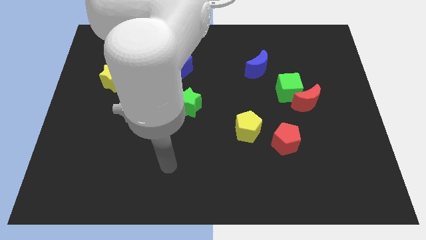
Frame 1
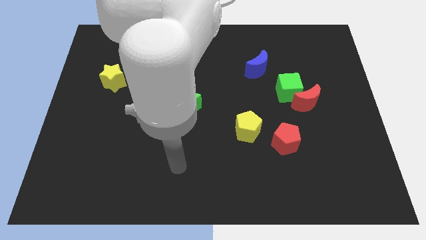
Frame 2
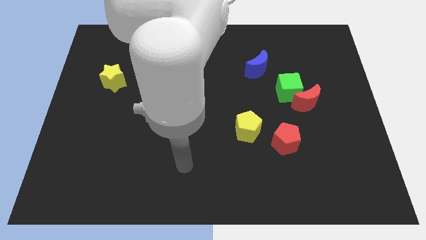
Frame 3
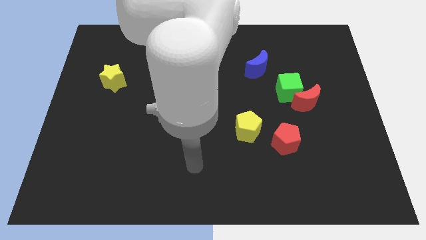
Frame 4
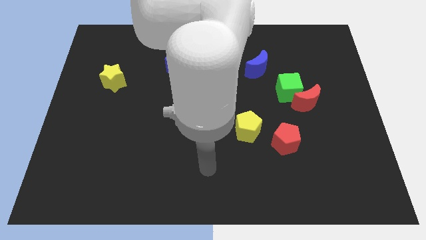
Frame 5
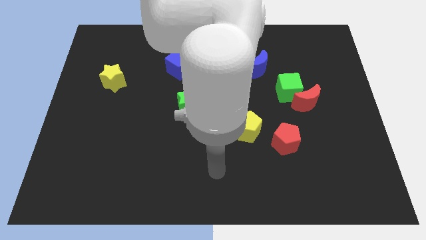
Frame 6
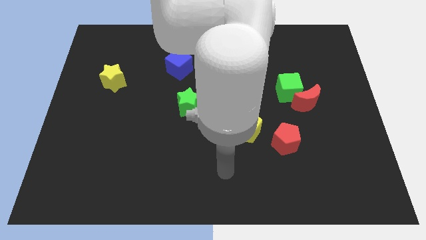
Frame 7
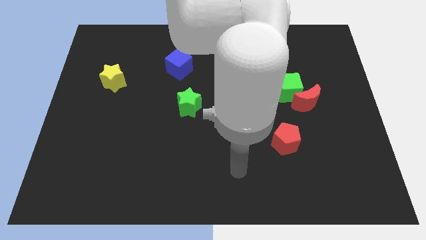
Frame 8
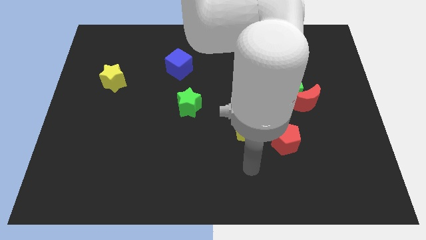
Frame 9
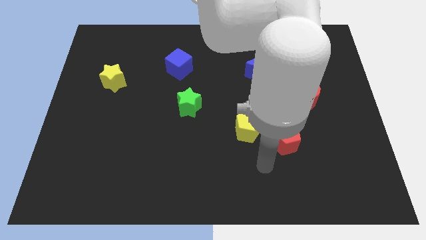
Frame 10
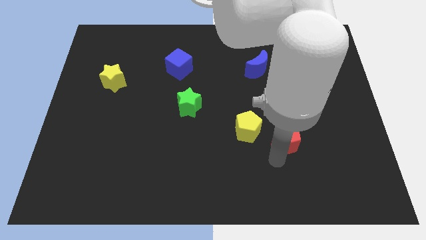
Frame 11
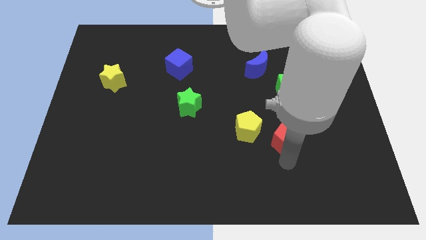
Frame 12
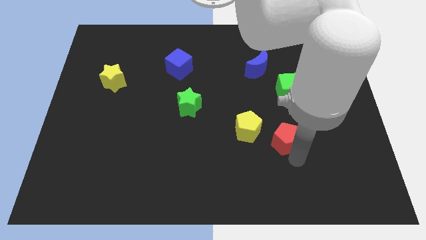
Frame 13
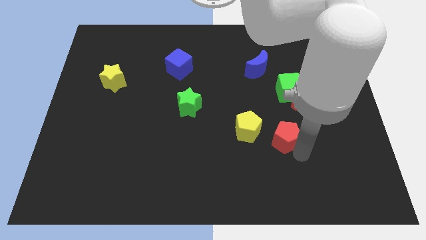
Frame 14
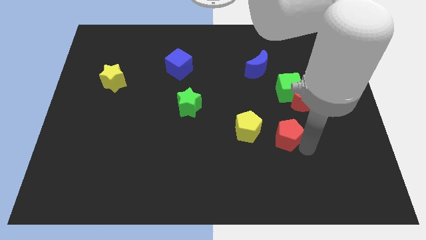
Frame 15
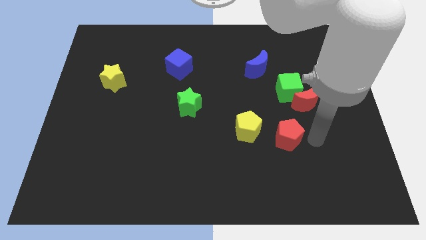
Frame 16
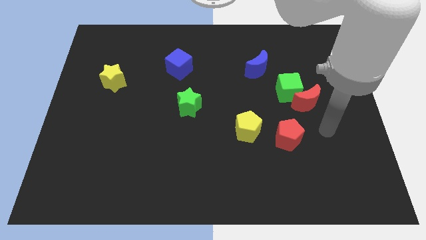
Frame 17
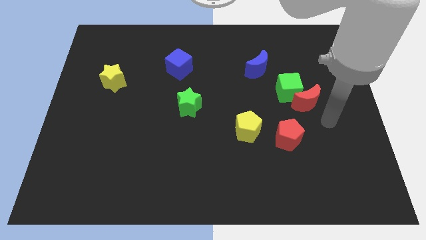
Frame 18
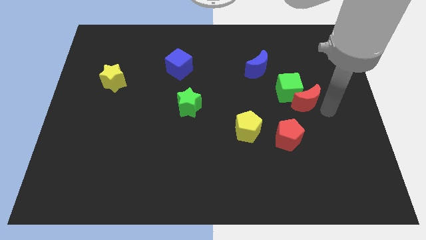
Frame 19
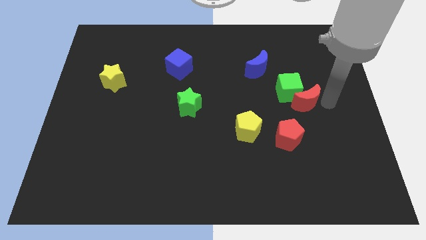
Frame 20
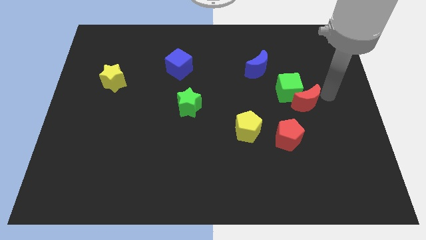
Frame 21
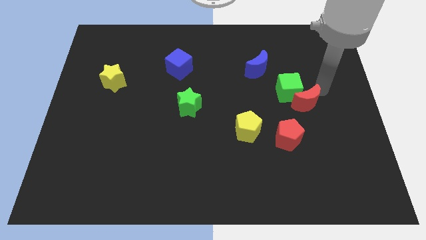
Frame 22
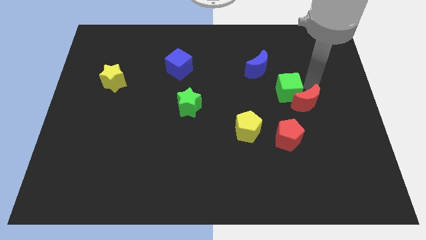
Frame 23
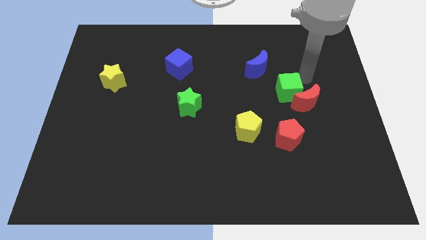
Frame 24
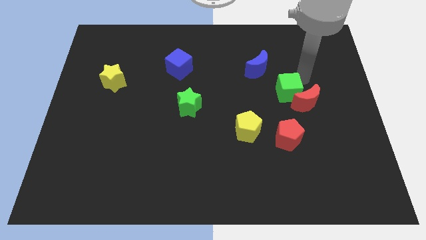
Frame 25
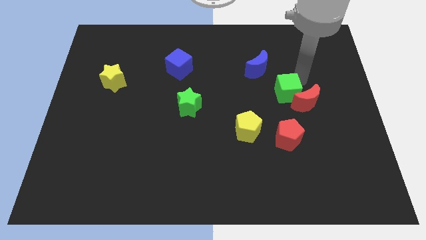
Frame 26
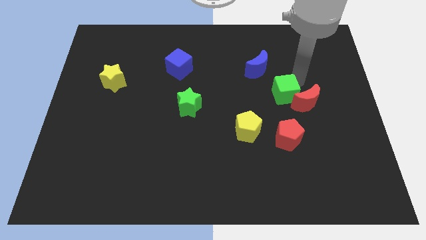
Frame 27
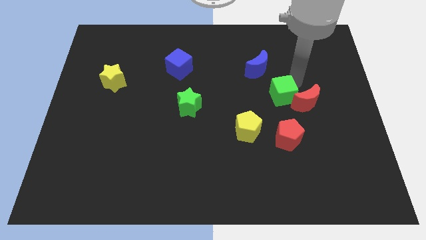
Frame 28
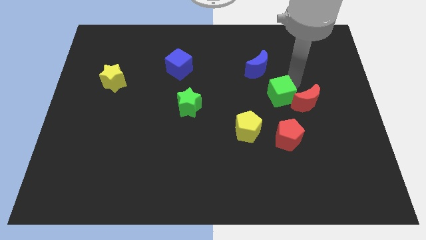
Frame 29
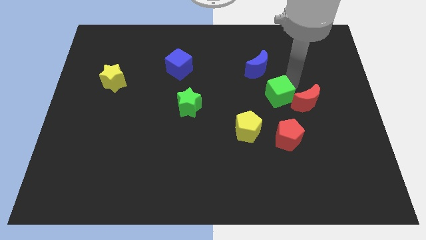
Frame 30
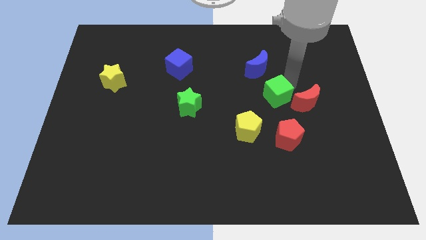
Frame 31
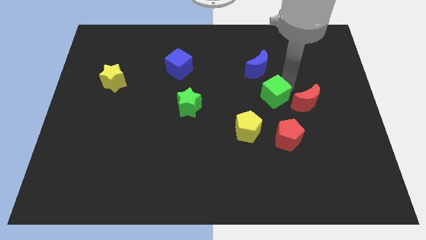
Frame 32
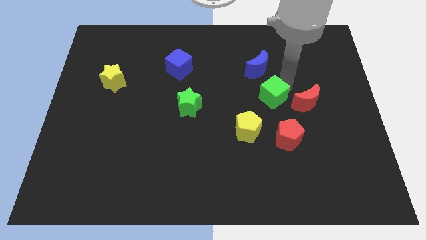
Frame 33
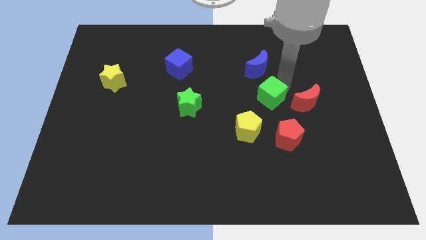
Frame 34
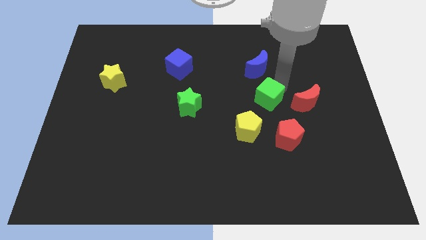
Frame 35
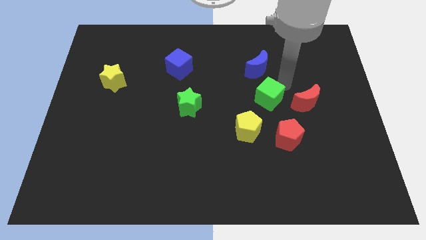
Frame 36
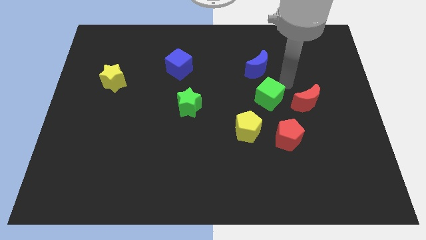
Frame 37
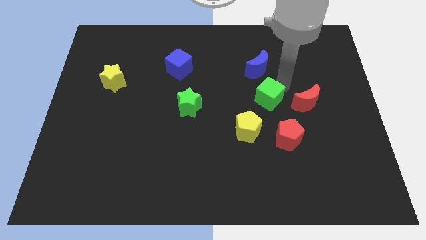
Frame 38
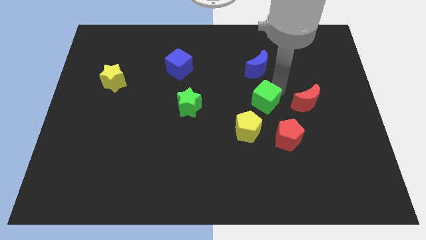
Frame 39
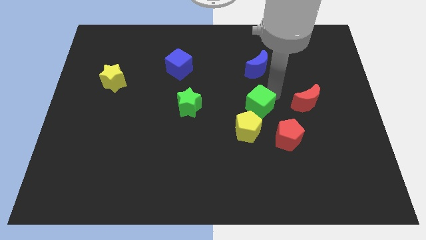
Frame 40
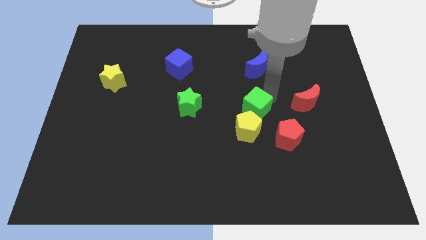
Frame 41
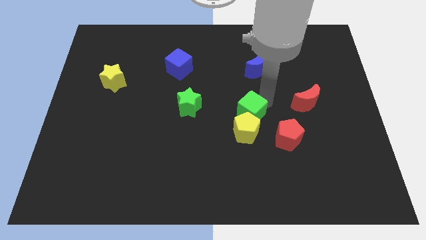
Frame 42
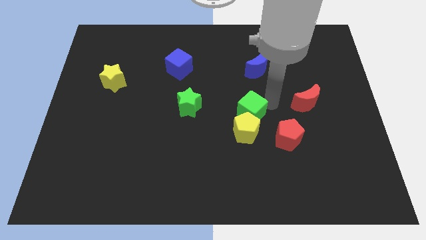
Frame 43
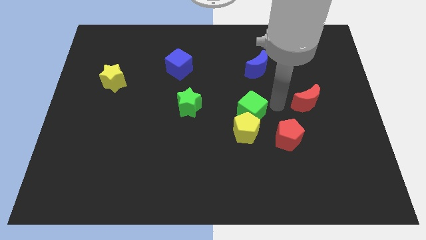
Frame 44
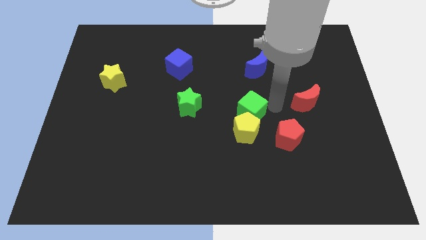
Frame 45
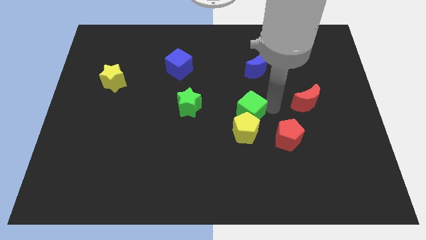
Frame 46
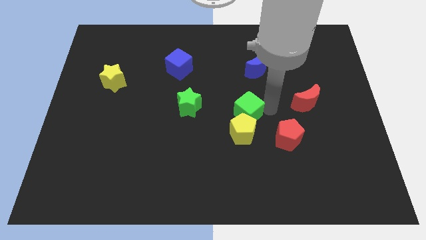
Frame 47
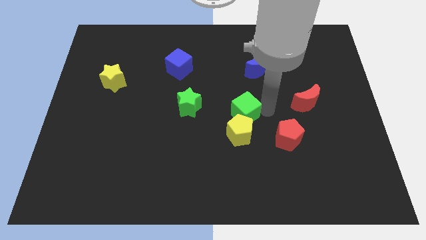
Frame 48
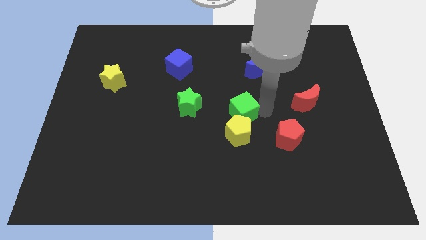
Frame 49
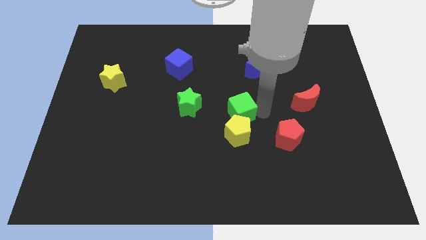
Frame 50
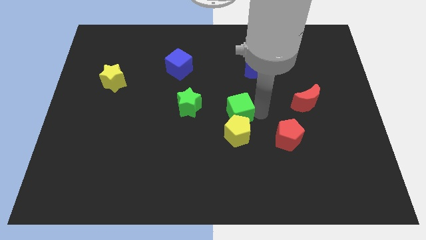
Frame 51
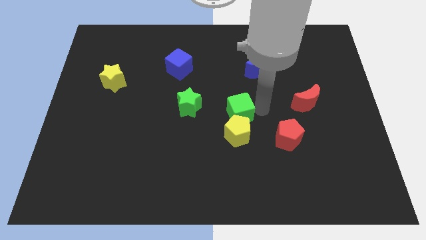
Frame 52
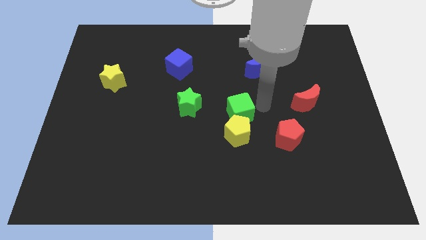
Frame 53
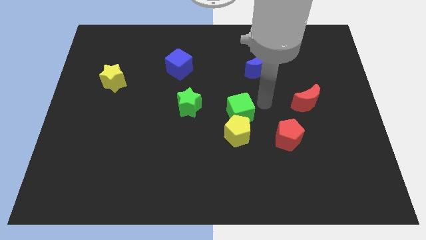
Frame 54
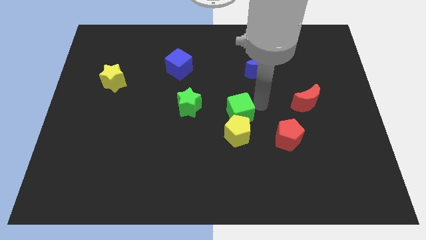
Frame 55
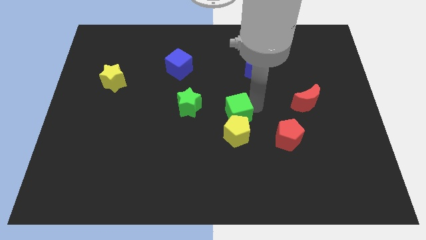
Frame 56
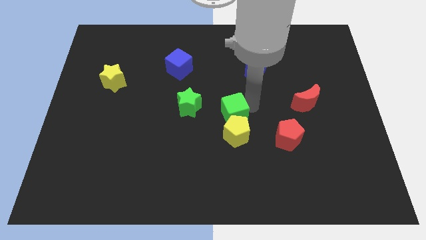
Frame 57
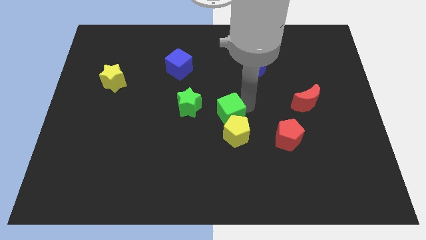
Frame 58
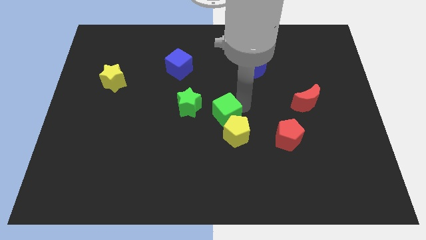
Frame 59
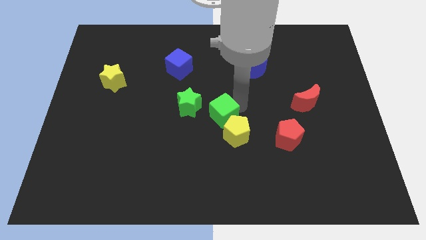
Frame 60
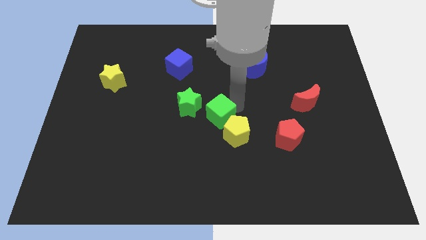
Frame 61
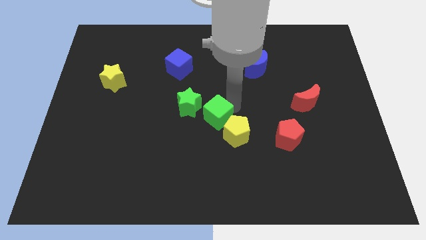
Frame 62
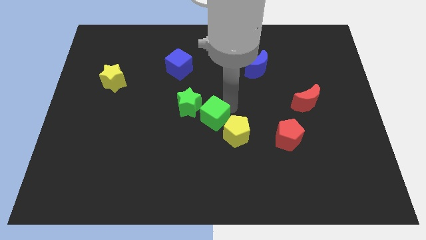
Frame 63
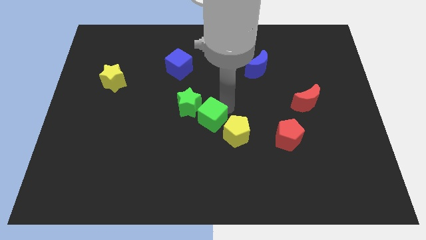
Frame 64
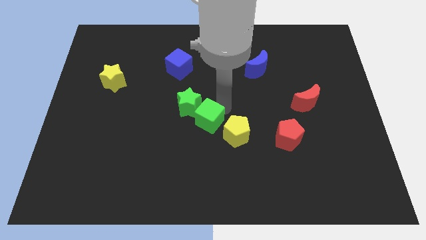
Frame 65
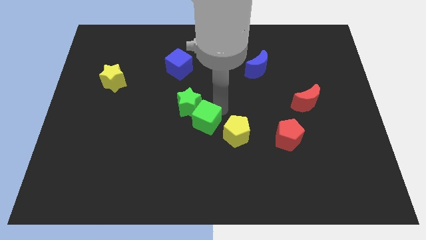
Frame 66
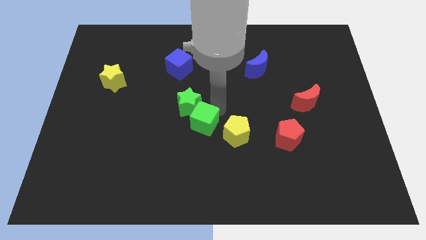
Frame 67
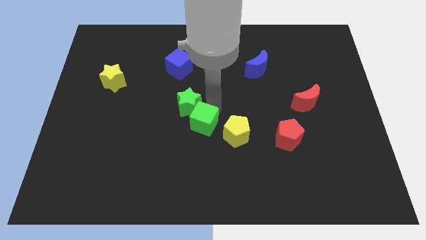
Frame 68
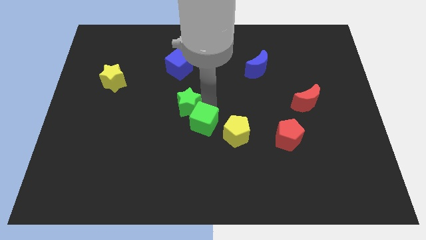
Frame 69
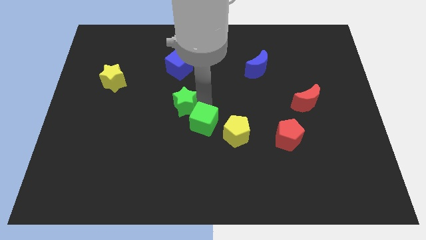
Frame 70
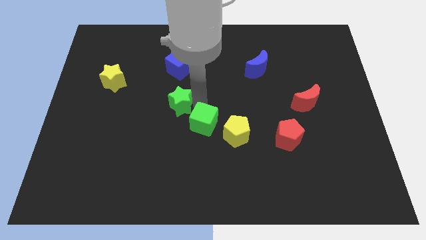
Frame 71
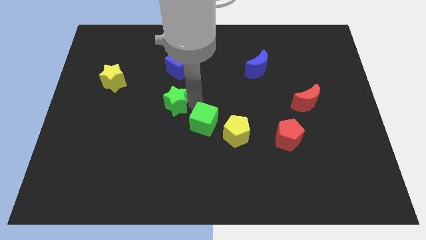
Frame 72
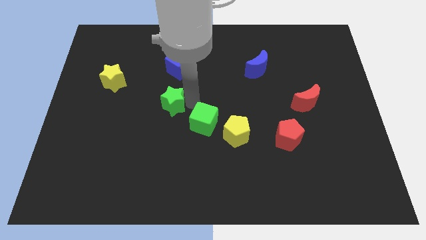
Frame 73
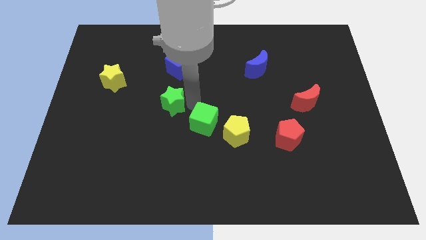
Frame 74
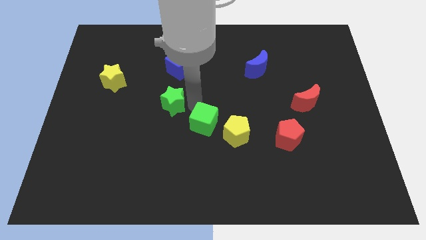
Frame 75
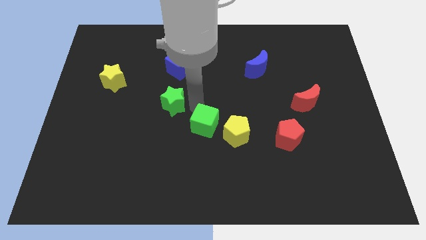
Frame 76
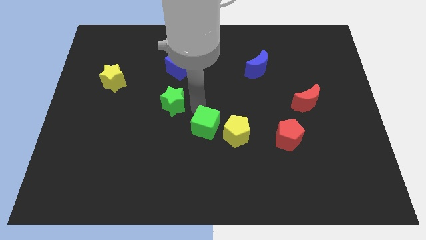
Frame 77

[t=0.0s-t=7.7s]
move the green cube diagonally down and left
